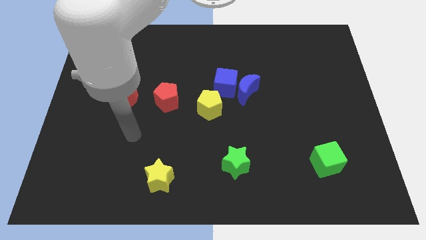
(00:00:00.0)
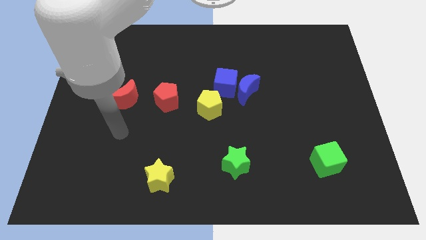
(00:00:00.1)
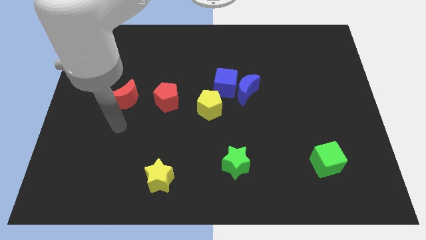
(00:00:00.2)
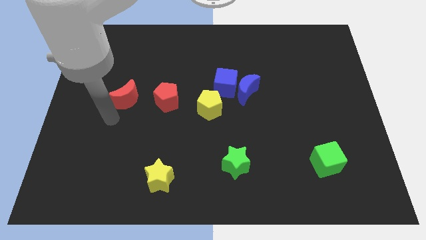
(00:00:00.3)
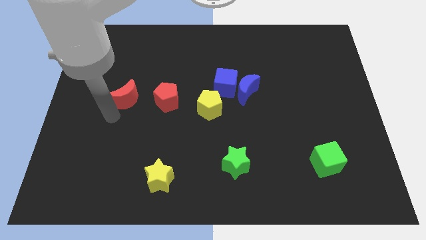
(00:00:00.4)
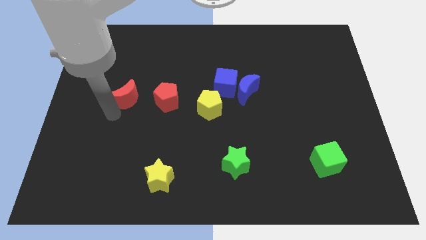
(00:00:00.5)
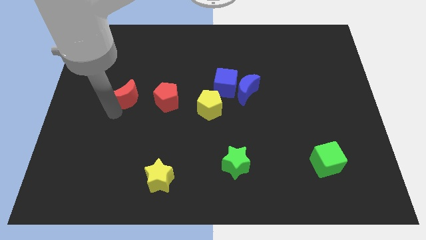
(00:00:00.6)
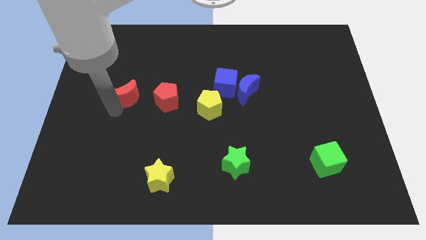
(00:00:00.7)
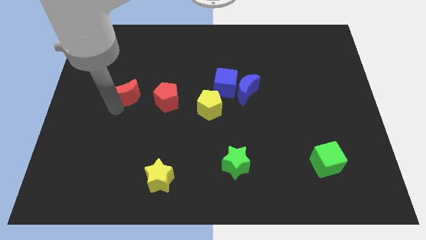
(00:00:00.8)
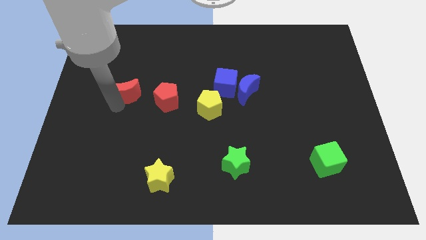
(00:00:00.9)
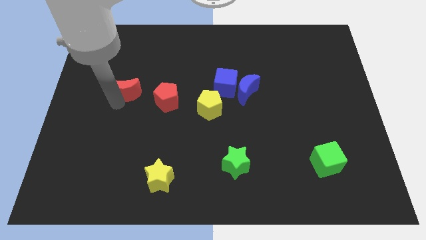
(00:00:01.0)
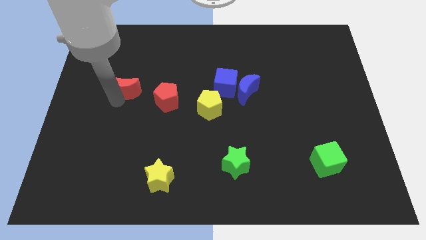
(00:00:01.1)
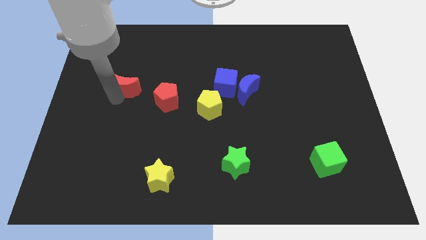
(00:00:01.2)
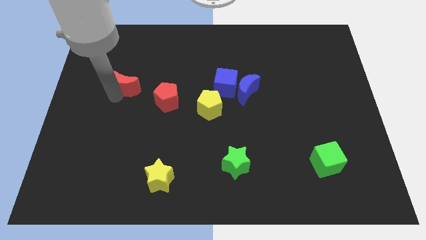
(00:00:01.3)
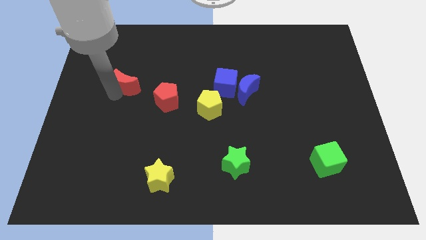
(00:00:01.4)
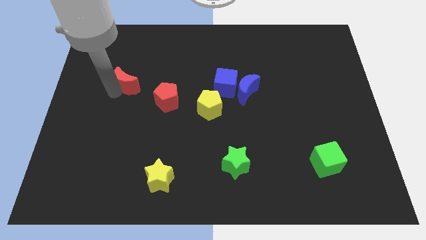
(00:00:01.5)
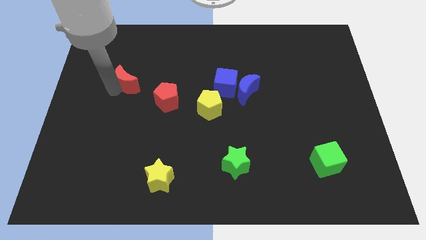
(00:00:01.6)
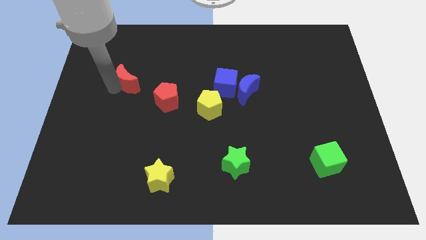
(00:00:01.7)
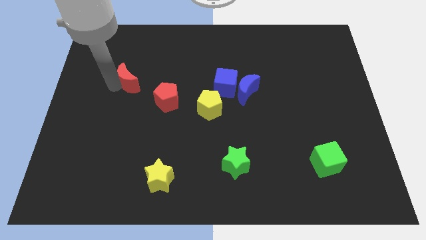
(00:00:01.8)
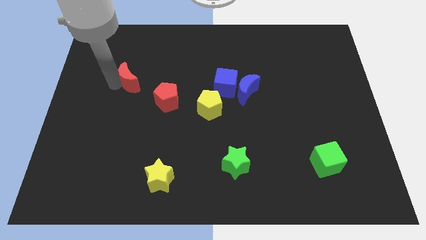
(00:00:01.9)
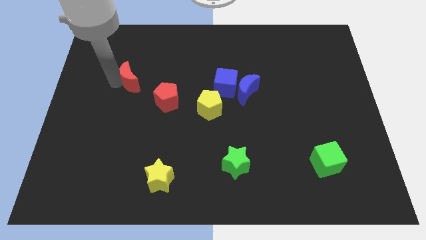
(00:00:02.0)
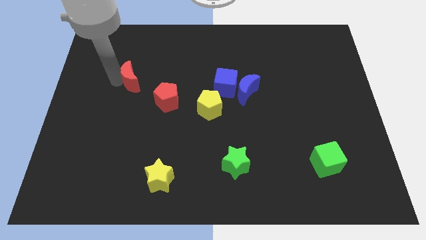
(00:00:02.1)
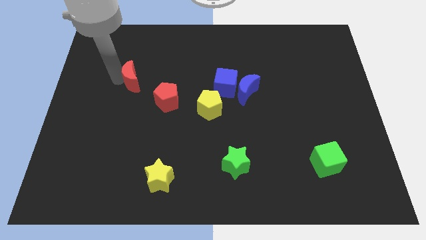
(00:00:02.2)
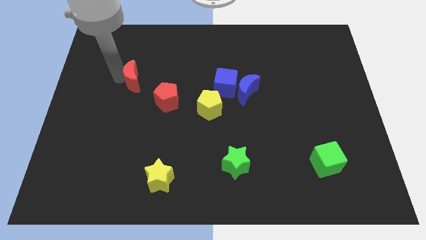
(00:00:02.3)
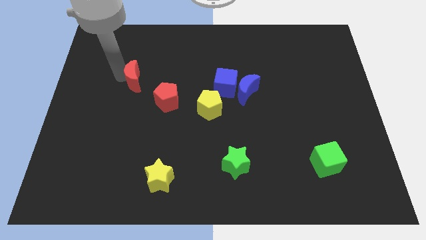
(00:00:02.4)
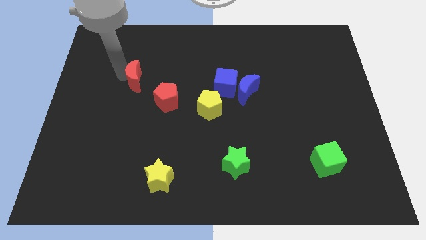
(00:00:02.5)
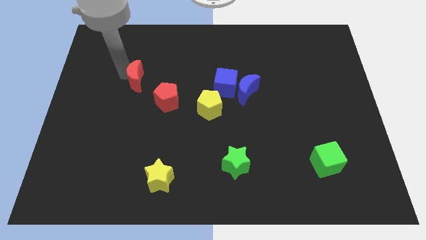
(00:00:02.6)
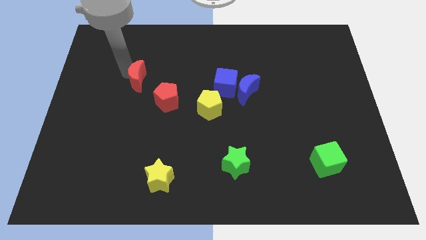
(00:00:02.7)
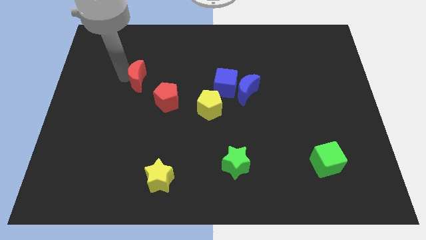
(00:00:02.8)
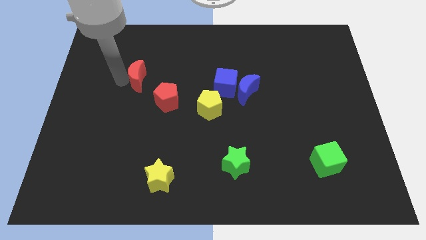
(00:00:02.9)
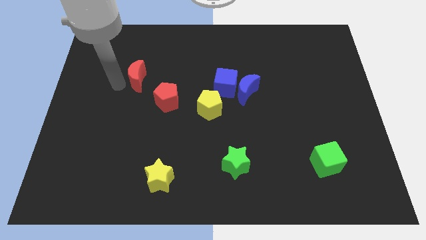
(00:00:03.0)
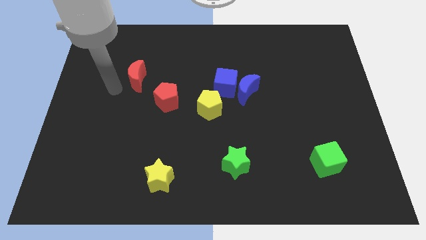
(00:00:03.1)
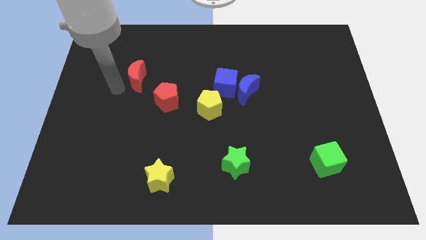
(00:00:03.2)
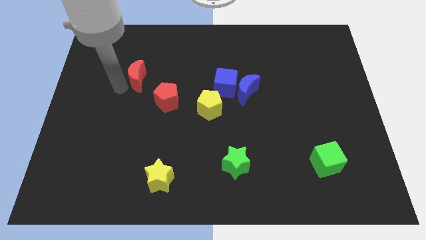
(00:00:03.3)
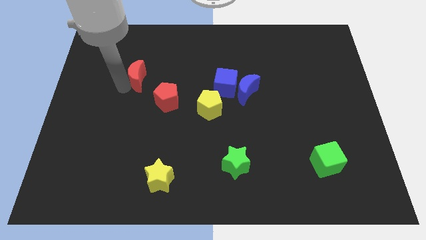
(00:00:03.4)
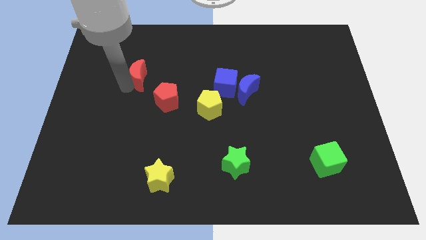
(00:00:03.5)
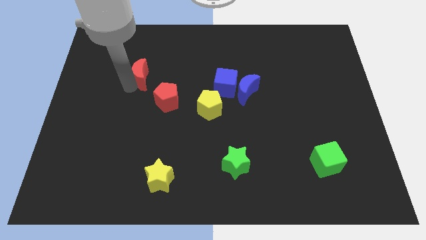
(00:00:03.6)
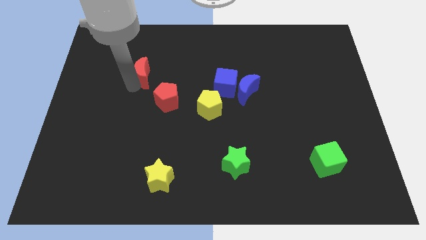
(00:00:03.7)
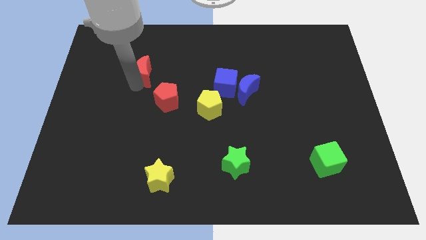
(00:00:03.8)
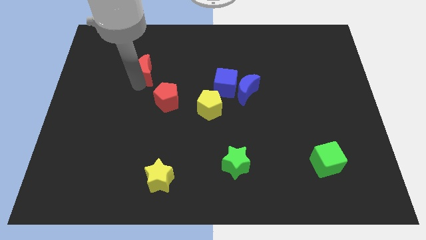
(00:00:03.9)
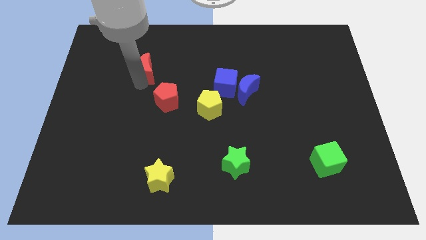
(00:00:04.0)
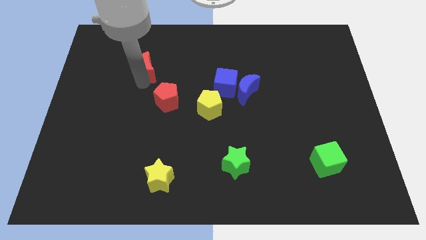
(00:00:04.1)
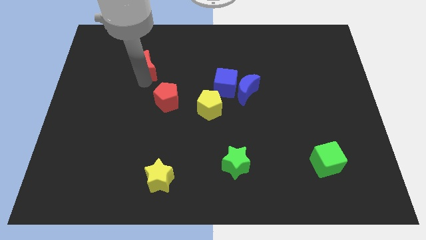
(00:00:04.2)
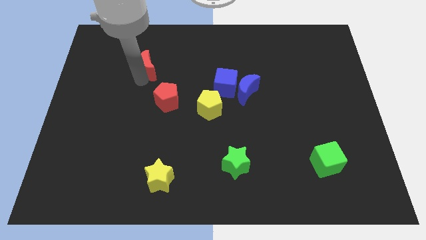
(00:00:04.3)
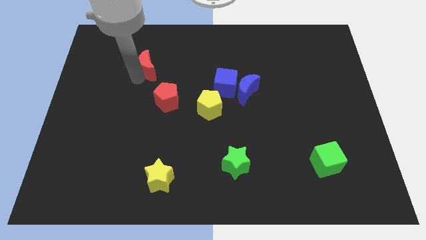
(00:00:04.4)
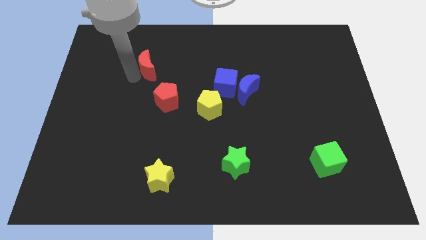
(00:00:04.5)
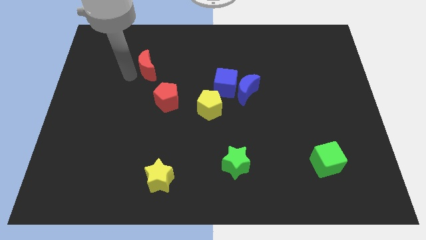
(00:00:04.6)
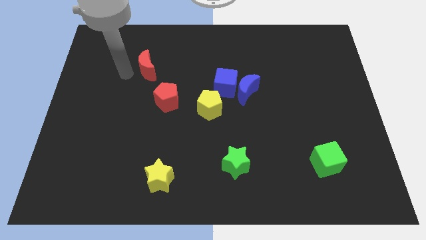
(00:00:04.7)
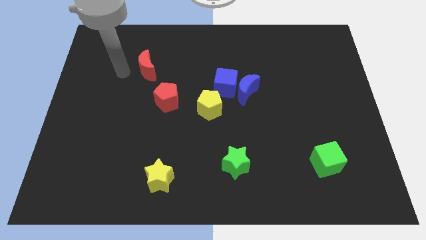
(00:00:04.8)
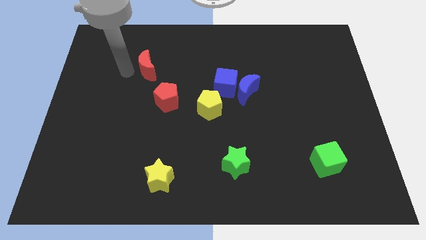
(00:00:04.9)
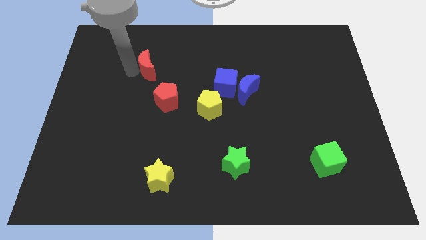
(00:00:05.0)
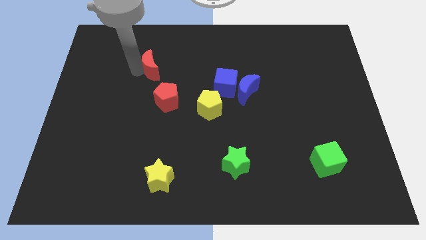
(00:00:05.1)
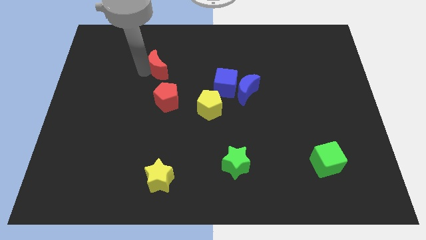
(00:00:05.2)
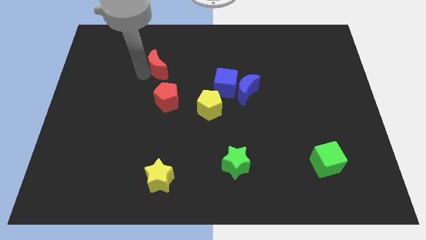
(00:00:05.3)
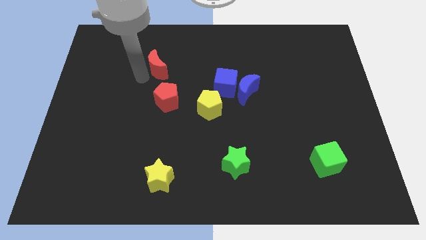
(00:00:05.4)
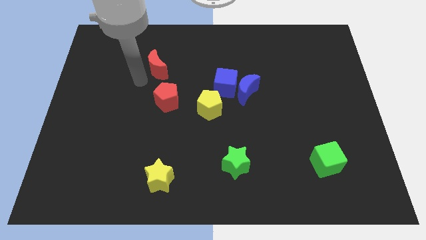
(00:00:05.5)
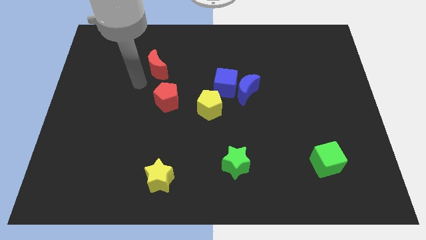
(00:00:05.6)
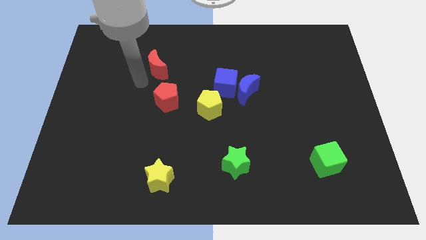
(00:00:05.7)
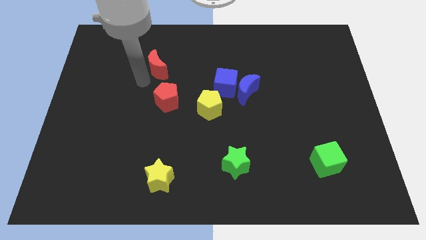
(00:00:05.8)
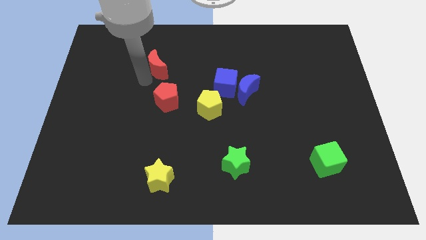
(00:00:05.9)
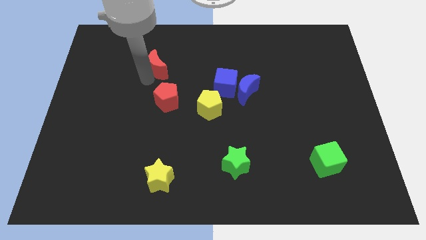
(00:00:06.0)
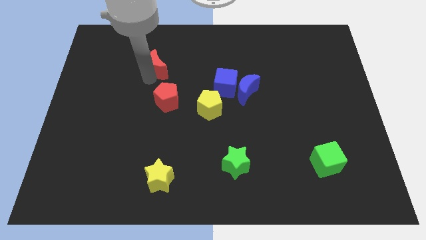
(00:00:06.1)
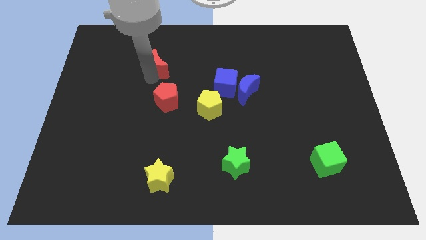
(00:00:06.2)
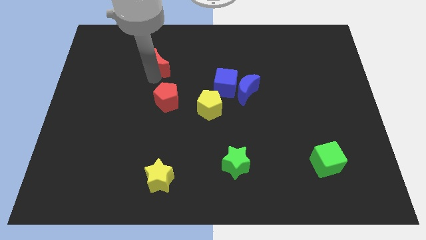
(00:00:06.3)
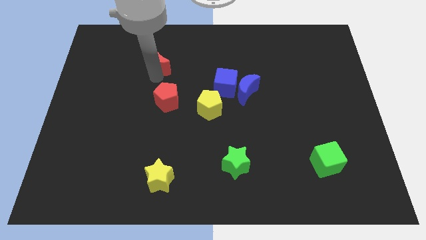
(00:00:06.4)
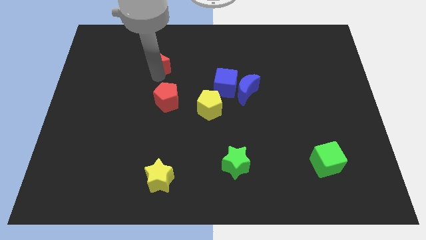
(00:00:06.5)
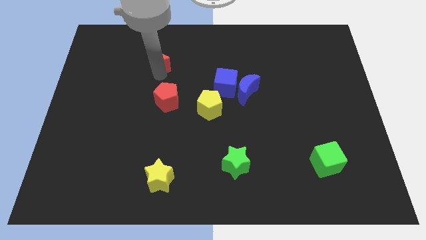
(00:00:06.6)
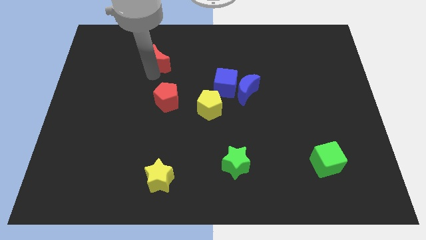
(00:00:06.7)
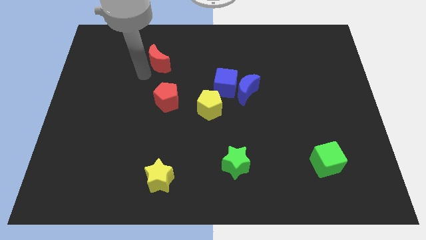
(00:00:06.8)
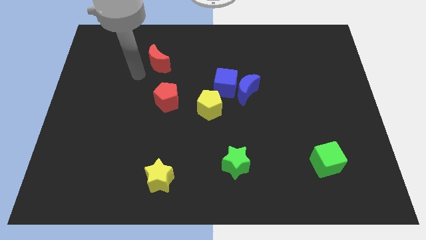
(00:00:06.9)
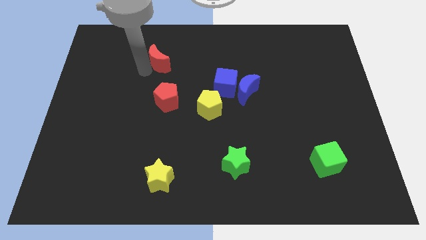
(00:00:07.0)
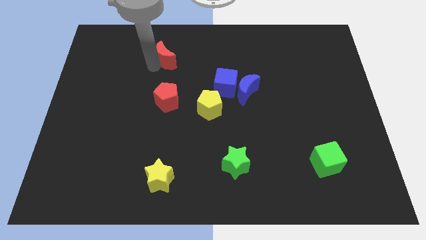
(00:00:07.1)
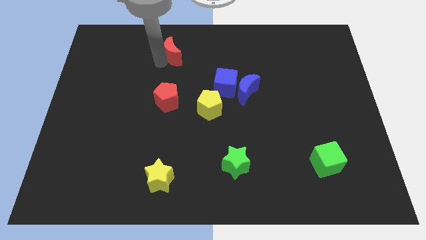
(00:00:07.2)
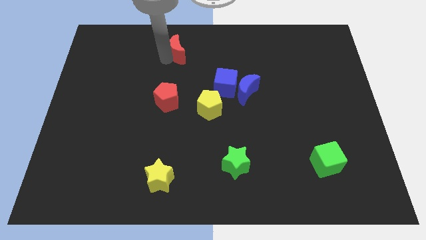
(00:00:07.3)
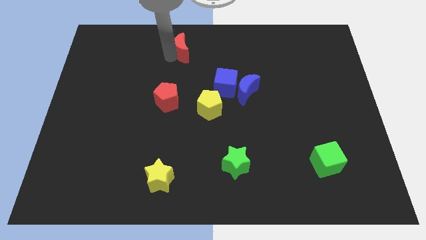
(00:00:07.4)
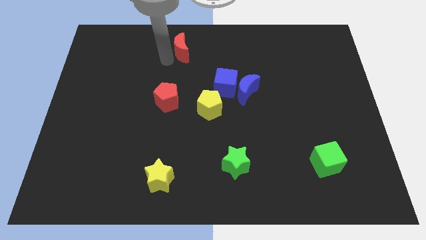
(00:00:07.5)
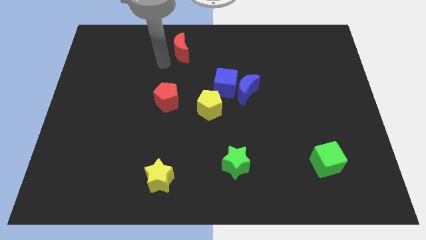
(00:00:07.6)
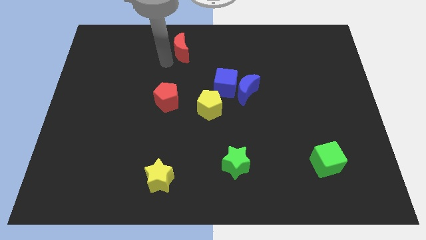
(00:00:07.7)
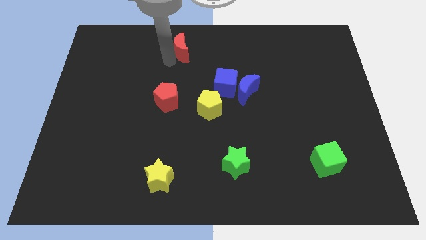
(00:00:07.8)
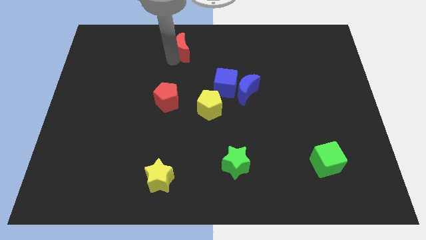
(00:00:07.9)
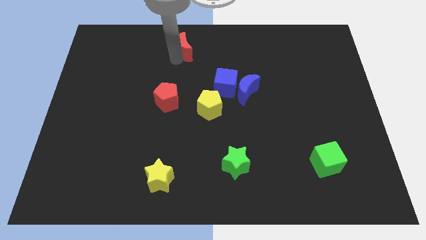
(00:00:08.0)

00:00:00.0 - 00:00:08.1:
push the red moon to the top side
